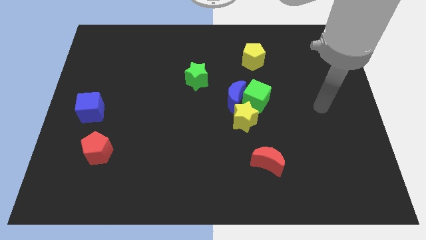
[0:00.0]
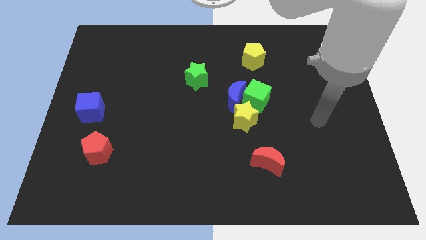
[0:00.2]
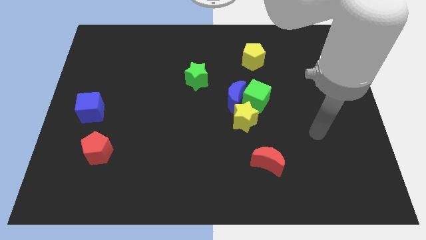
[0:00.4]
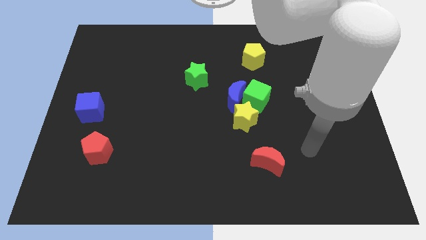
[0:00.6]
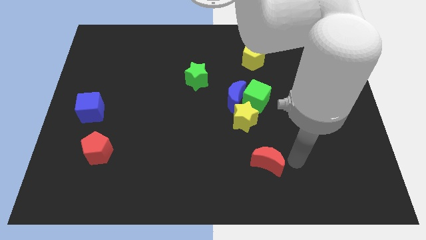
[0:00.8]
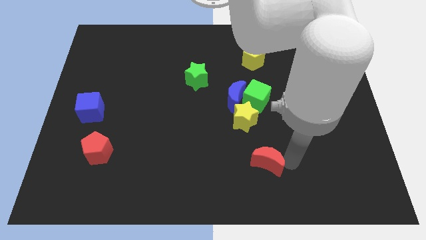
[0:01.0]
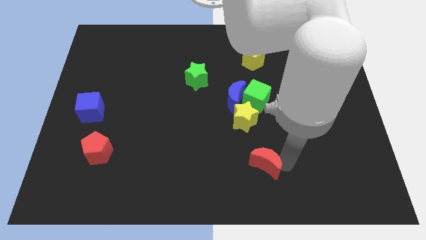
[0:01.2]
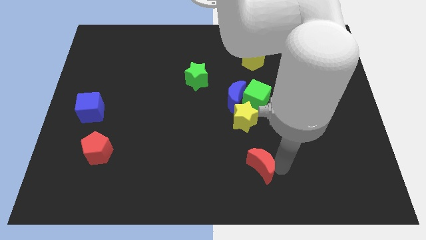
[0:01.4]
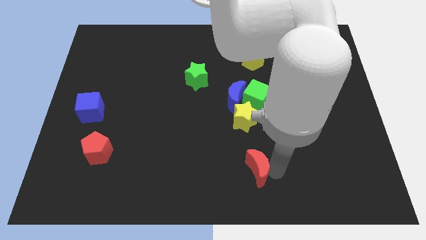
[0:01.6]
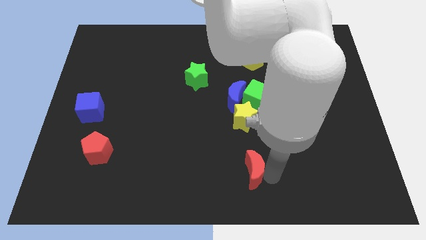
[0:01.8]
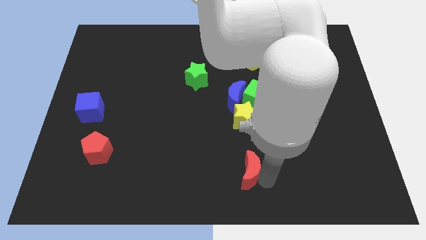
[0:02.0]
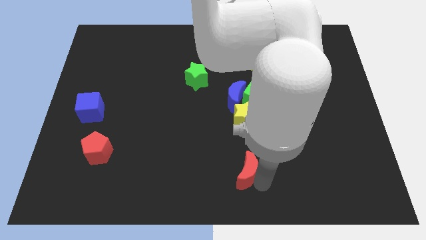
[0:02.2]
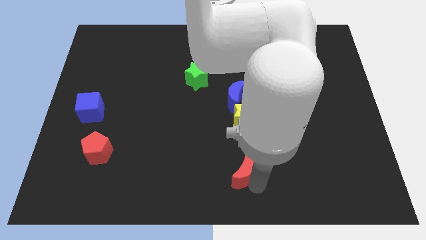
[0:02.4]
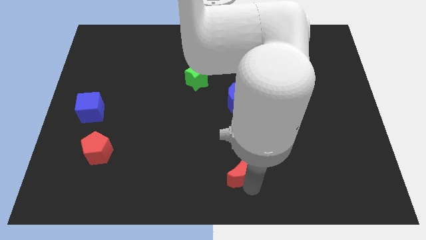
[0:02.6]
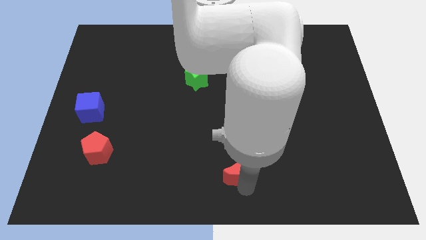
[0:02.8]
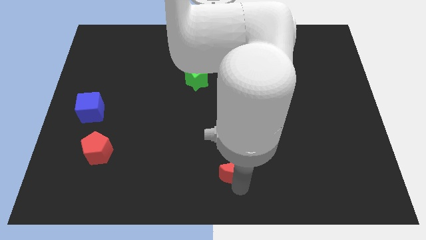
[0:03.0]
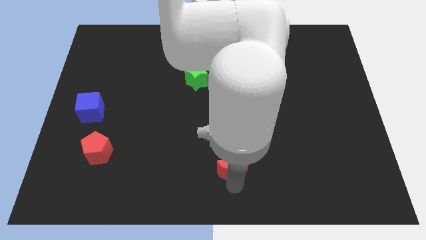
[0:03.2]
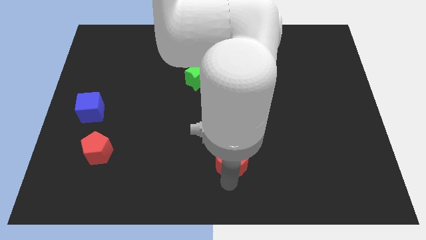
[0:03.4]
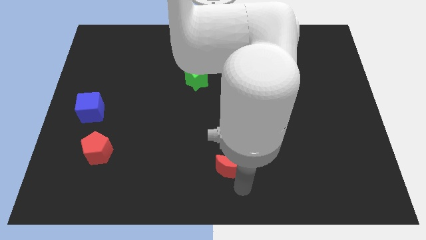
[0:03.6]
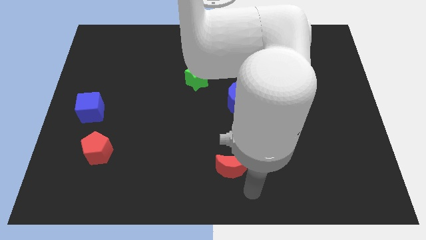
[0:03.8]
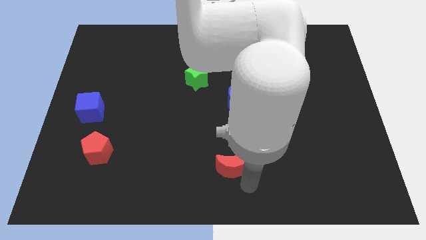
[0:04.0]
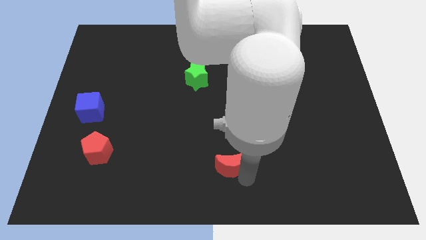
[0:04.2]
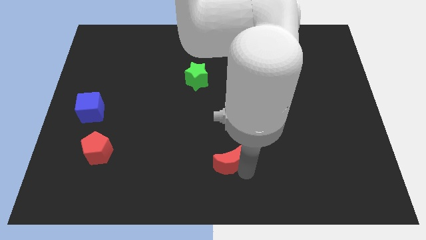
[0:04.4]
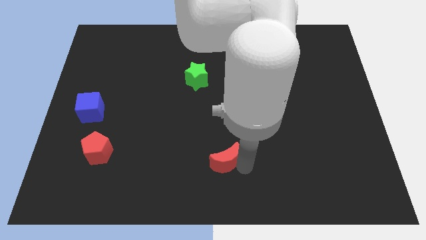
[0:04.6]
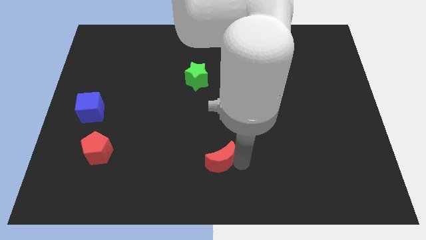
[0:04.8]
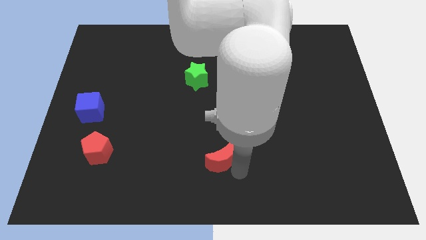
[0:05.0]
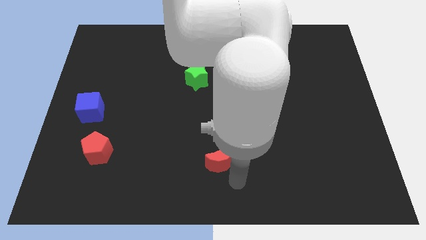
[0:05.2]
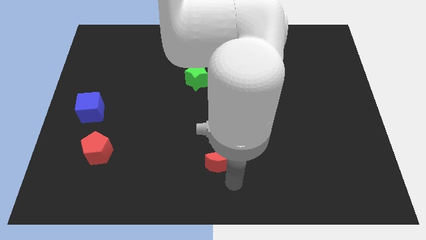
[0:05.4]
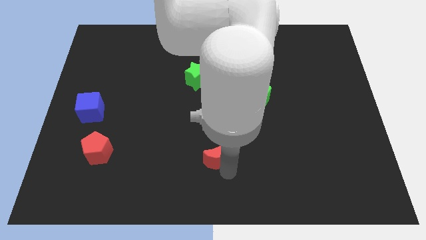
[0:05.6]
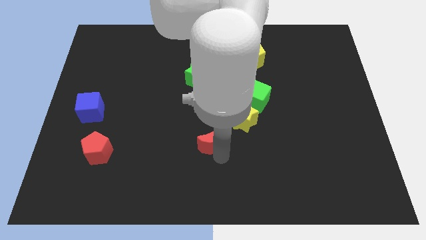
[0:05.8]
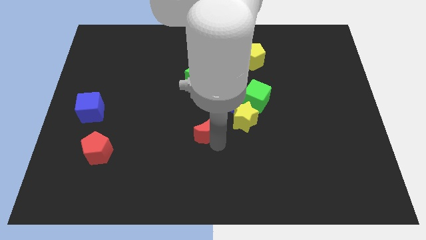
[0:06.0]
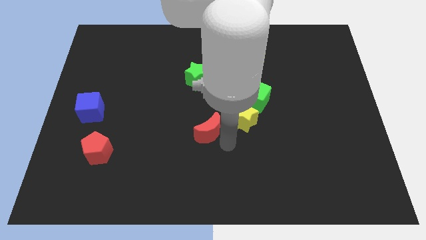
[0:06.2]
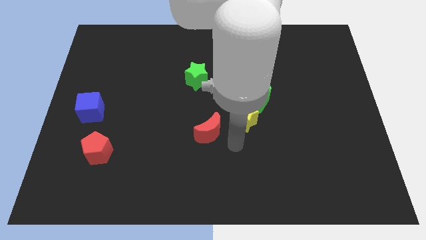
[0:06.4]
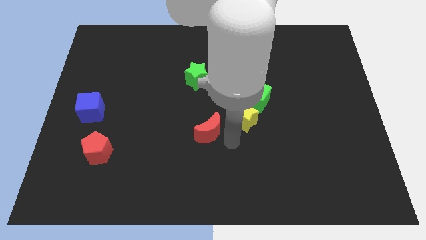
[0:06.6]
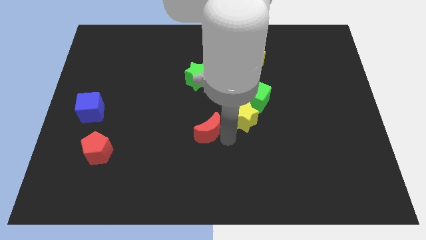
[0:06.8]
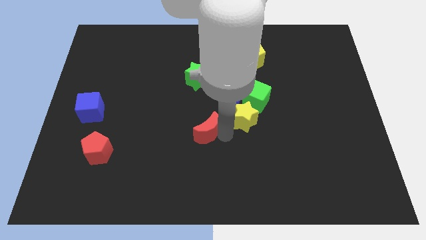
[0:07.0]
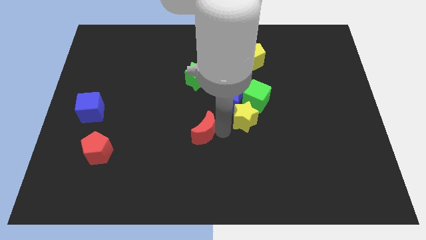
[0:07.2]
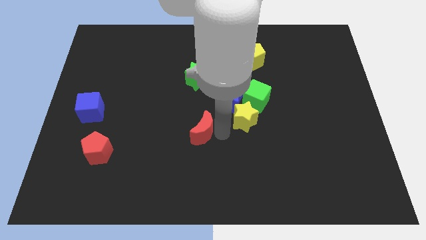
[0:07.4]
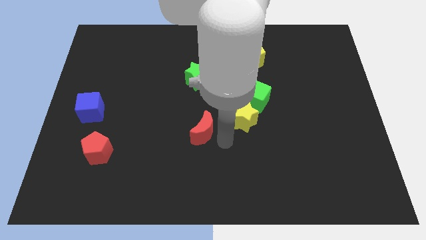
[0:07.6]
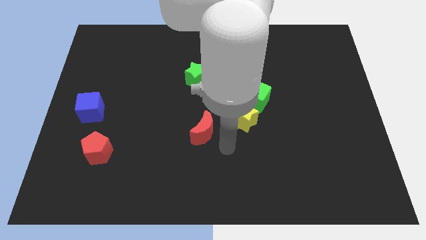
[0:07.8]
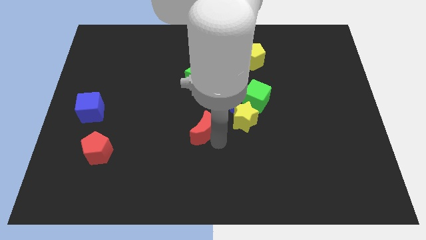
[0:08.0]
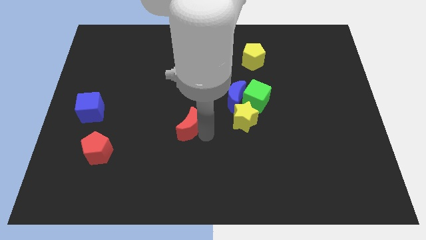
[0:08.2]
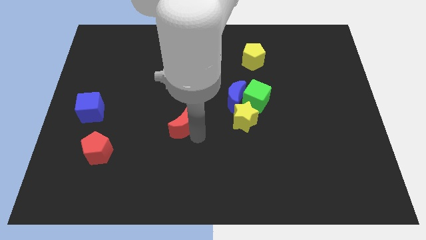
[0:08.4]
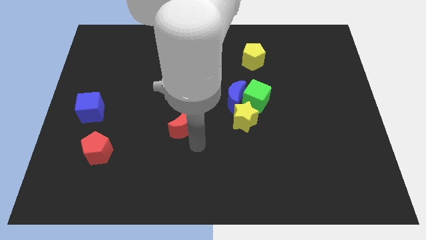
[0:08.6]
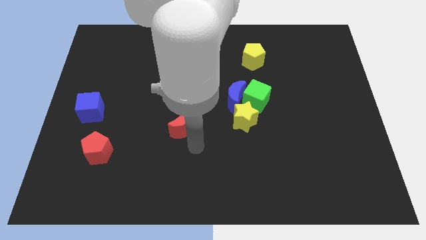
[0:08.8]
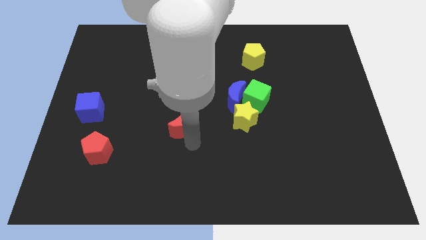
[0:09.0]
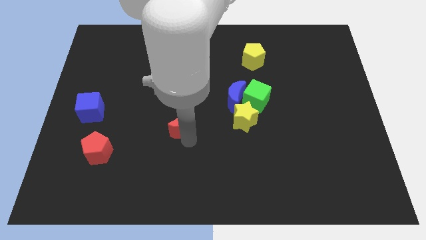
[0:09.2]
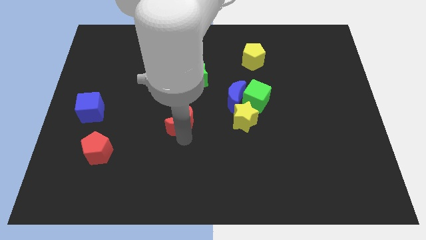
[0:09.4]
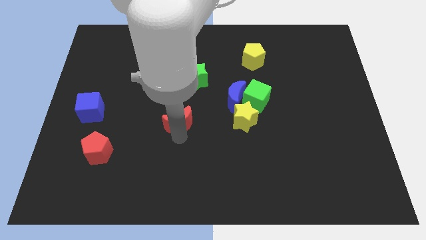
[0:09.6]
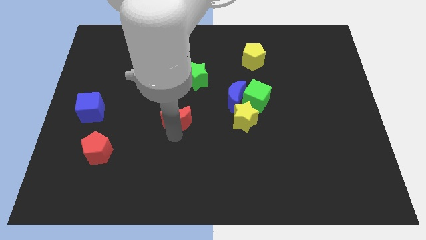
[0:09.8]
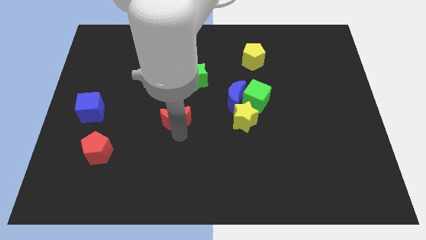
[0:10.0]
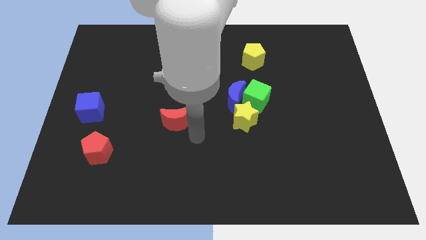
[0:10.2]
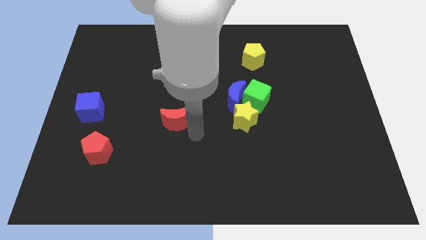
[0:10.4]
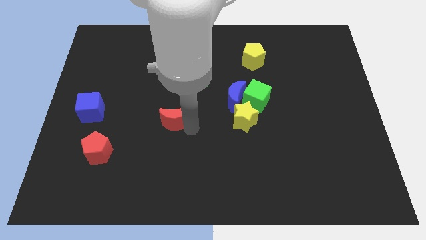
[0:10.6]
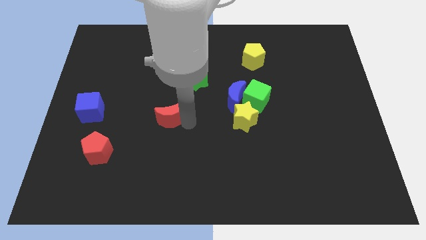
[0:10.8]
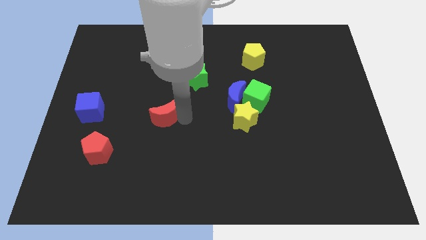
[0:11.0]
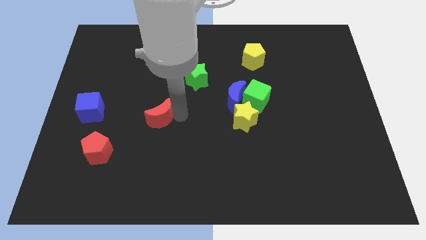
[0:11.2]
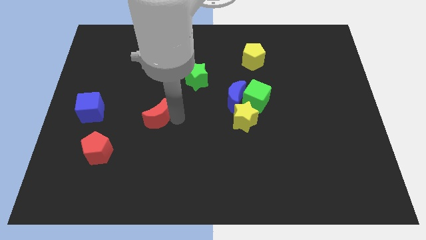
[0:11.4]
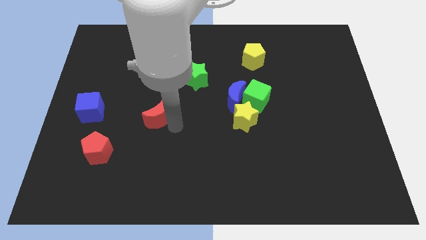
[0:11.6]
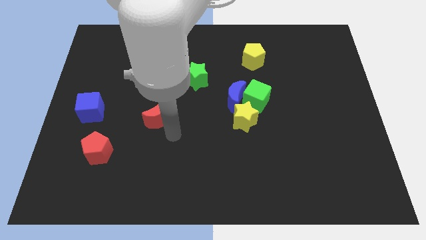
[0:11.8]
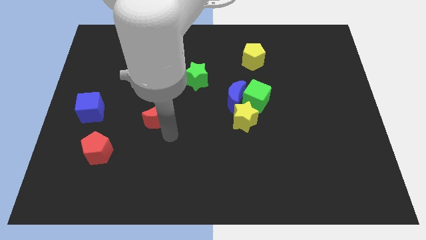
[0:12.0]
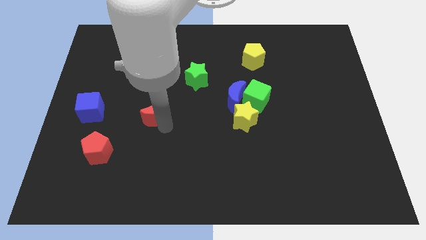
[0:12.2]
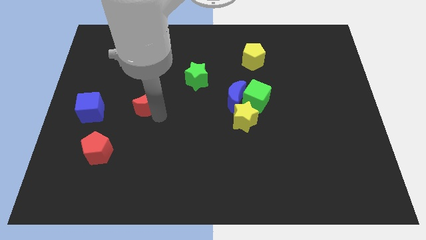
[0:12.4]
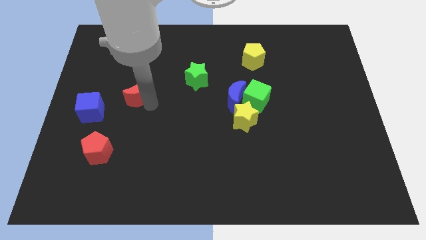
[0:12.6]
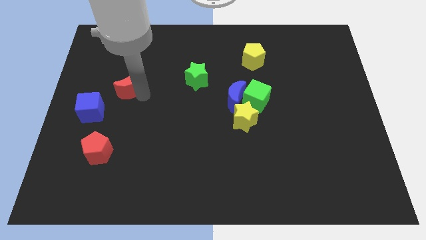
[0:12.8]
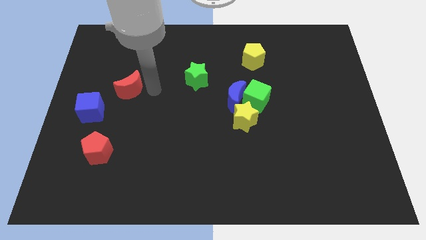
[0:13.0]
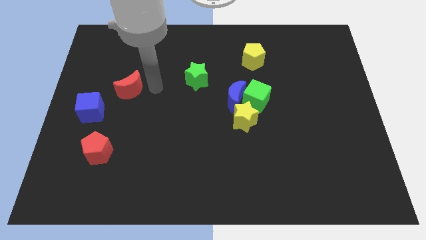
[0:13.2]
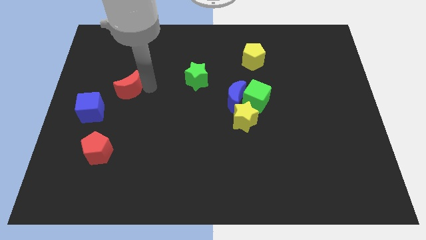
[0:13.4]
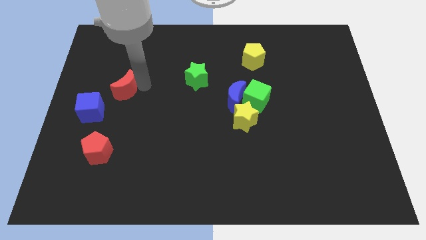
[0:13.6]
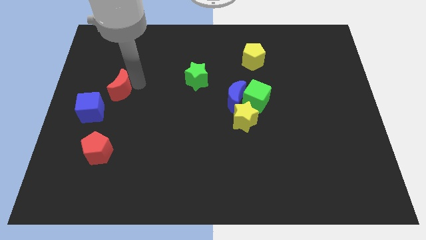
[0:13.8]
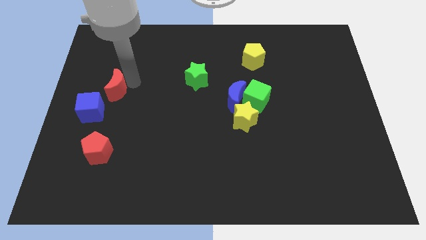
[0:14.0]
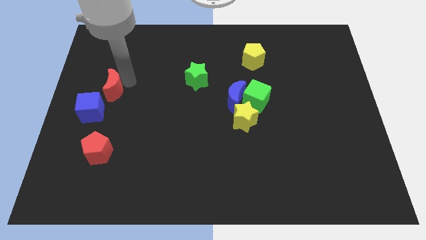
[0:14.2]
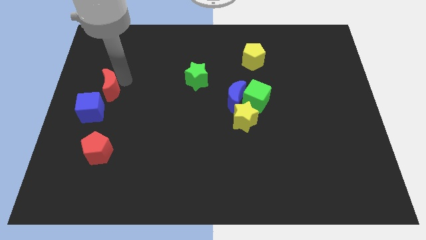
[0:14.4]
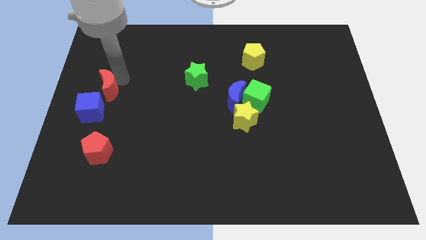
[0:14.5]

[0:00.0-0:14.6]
put the red moon to the left side of the board
